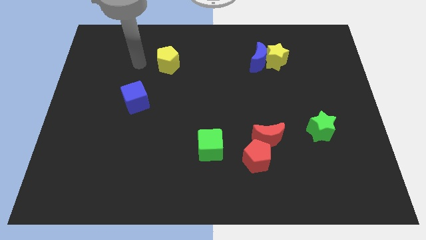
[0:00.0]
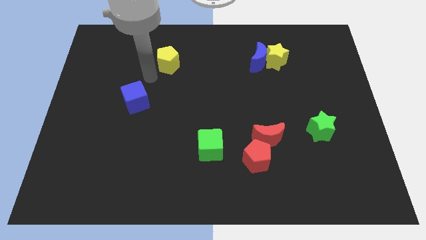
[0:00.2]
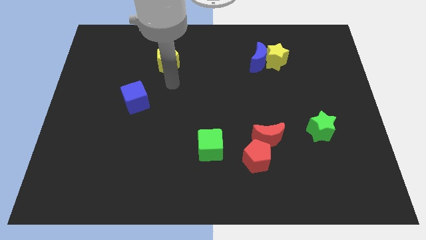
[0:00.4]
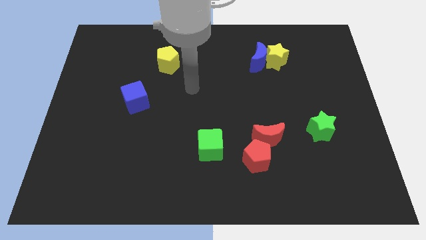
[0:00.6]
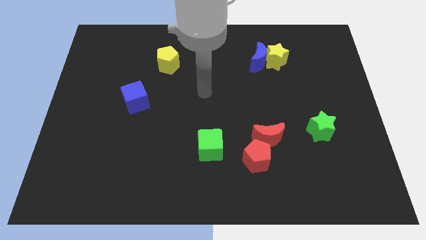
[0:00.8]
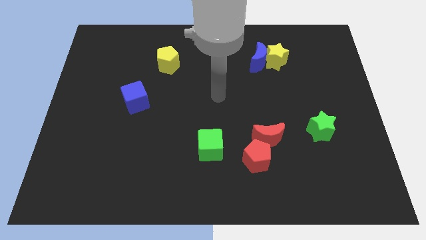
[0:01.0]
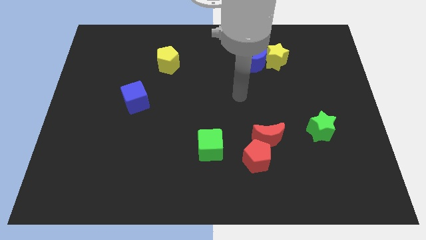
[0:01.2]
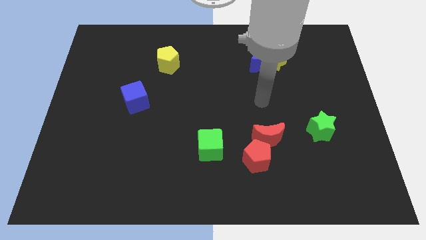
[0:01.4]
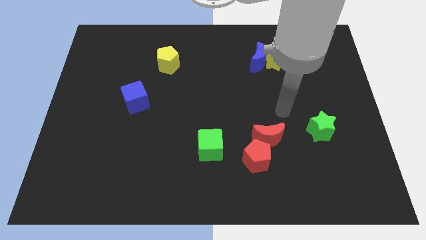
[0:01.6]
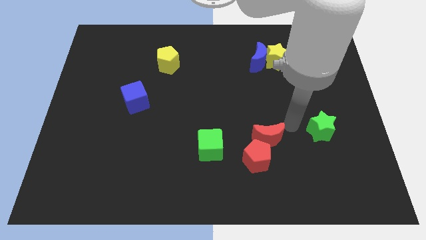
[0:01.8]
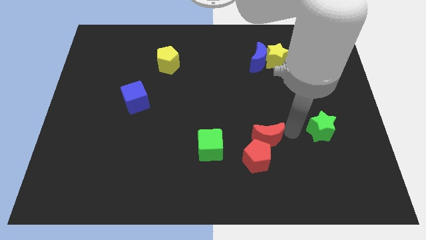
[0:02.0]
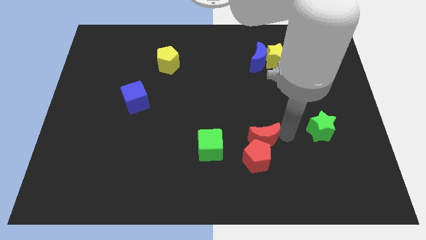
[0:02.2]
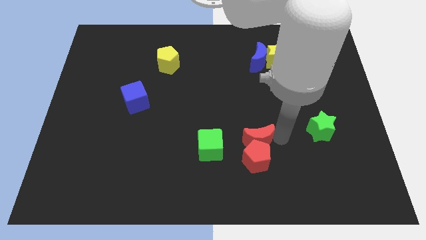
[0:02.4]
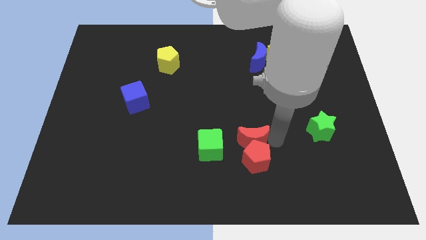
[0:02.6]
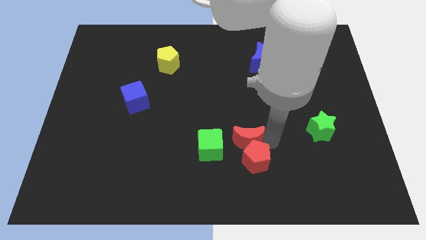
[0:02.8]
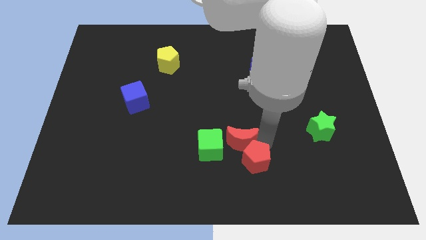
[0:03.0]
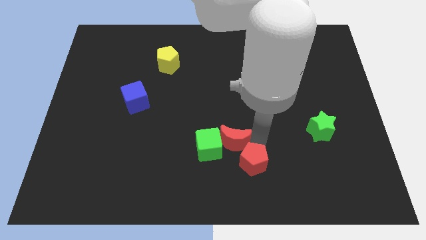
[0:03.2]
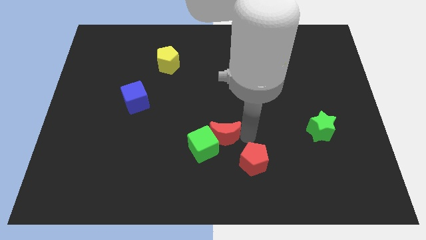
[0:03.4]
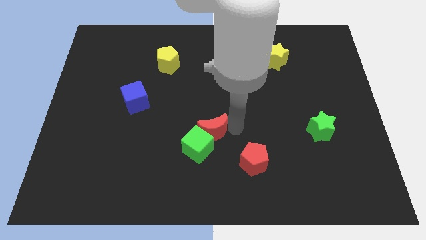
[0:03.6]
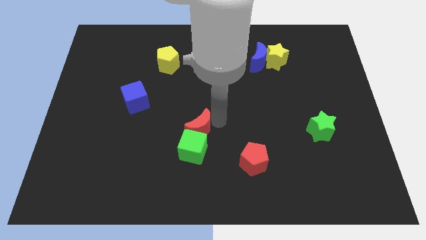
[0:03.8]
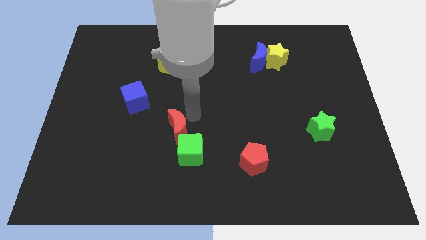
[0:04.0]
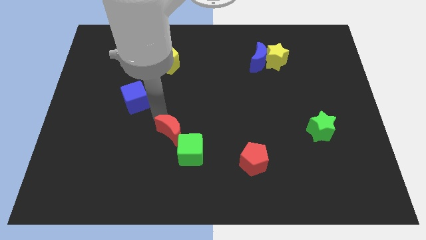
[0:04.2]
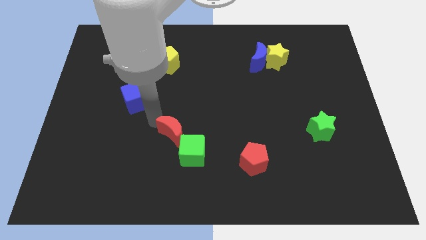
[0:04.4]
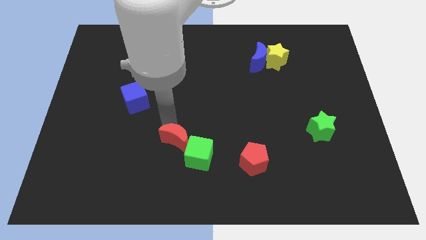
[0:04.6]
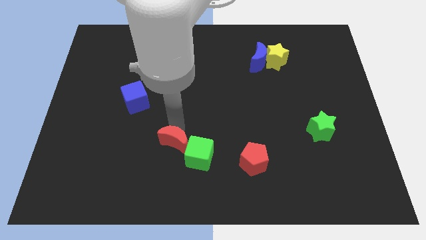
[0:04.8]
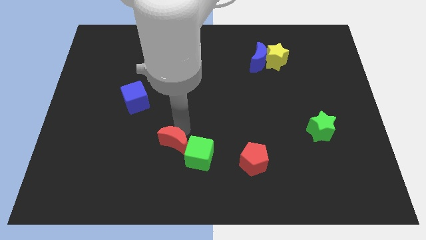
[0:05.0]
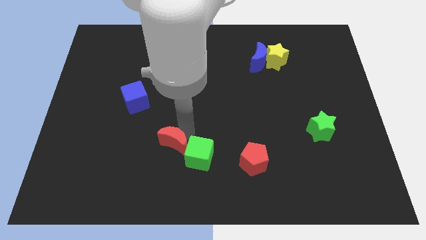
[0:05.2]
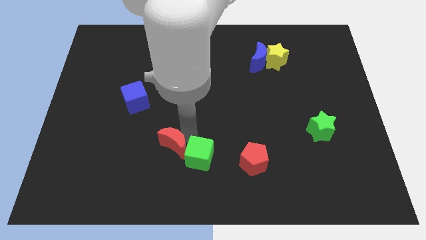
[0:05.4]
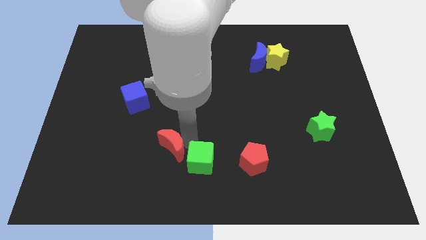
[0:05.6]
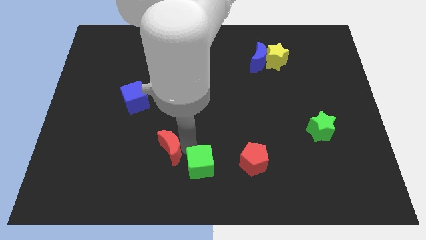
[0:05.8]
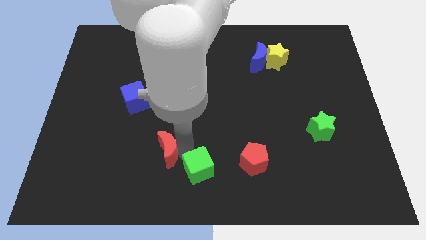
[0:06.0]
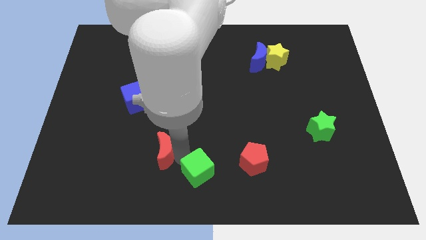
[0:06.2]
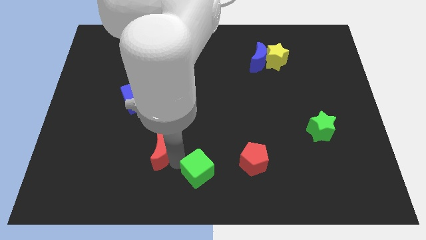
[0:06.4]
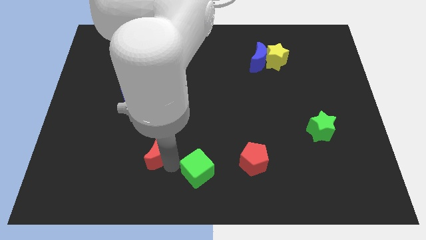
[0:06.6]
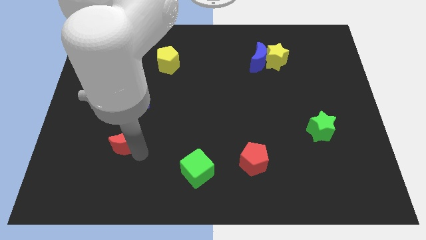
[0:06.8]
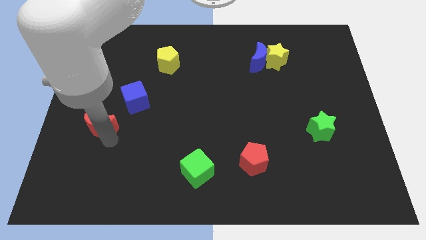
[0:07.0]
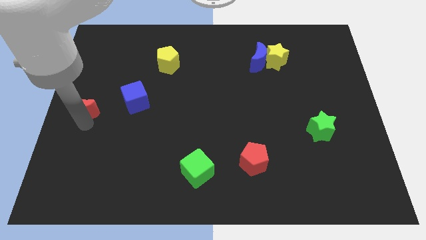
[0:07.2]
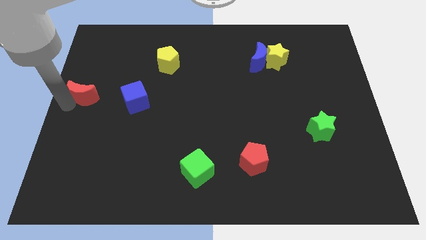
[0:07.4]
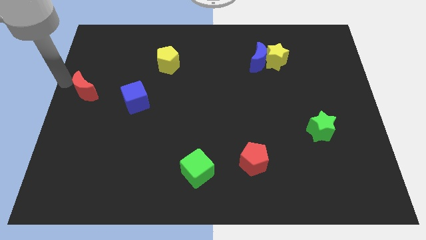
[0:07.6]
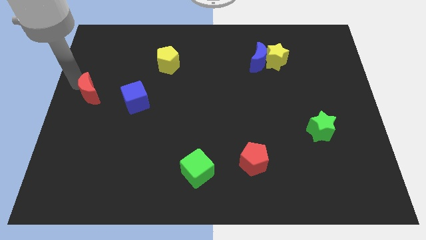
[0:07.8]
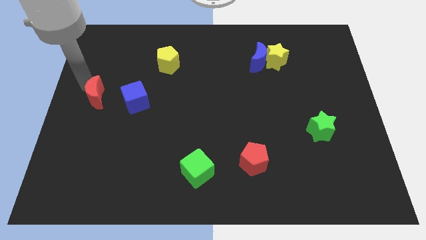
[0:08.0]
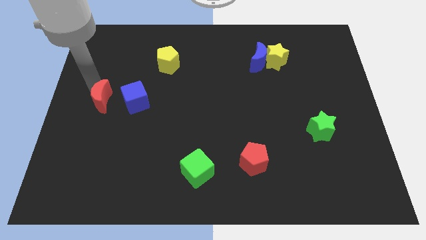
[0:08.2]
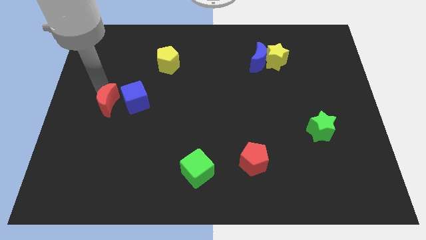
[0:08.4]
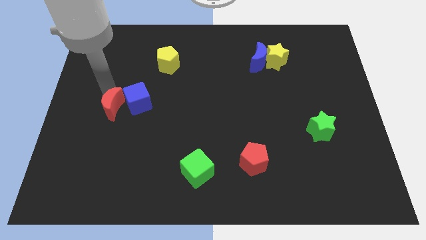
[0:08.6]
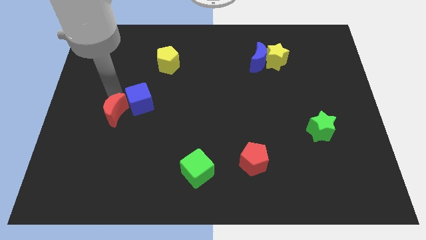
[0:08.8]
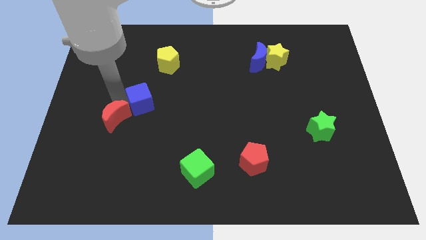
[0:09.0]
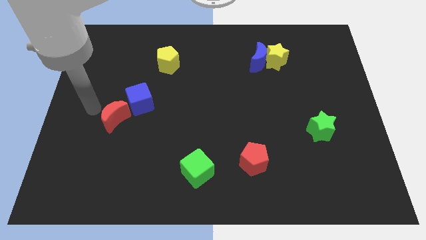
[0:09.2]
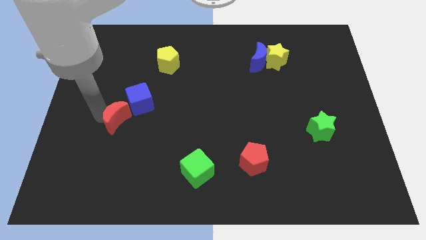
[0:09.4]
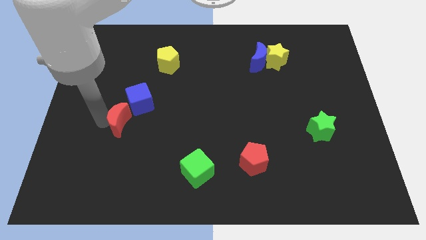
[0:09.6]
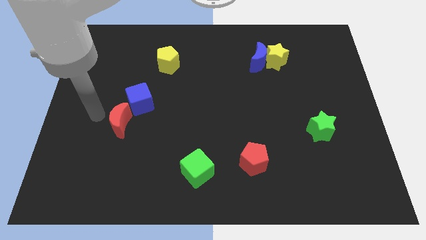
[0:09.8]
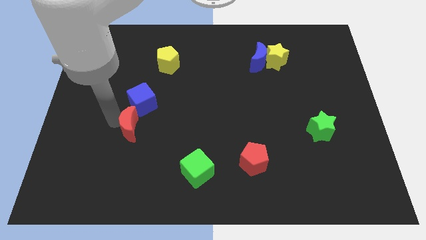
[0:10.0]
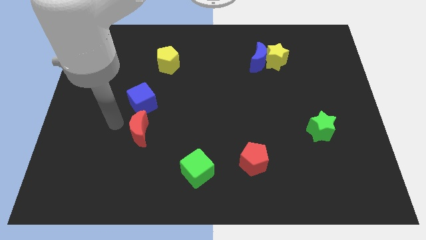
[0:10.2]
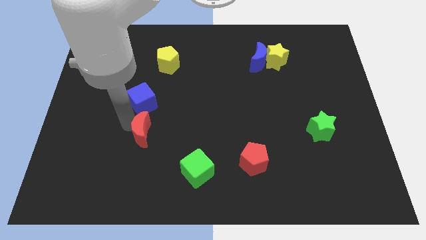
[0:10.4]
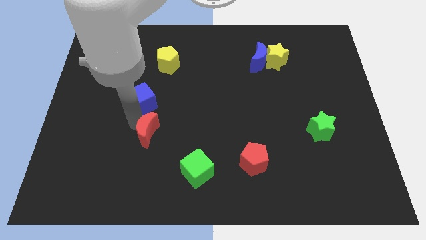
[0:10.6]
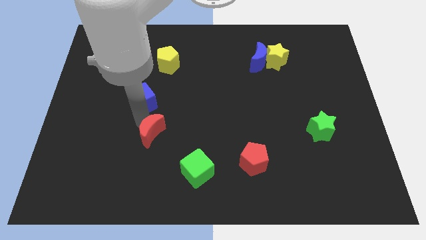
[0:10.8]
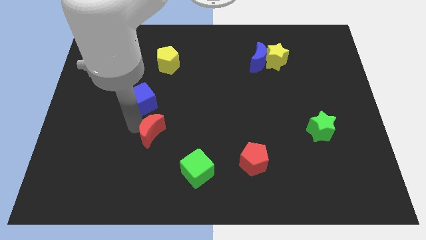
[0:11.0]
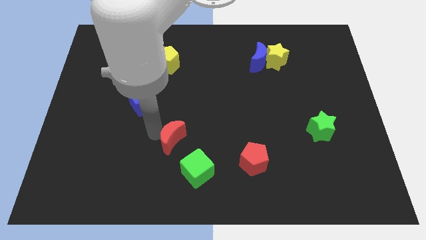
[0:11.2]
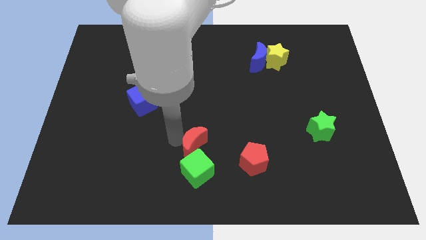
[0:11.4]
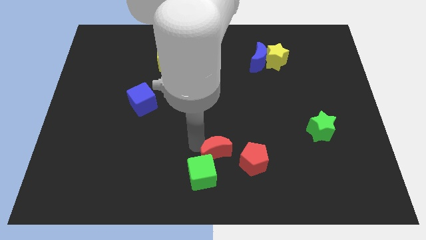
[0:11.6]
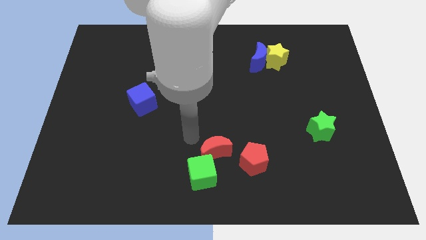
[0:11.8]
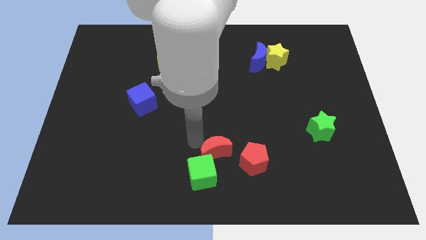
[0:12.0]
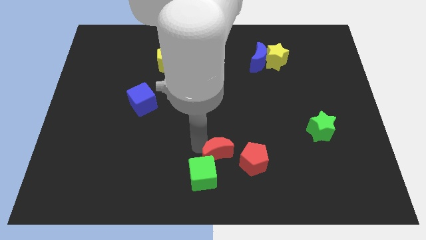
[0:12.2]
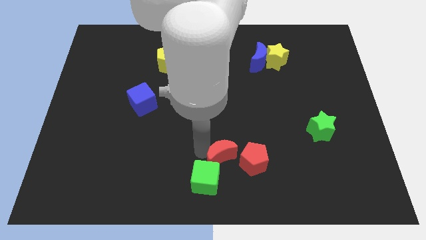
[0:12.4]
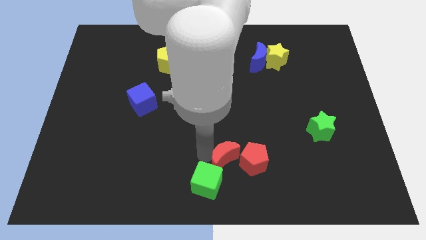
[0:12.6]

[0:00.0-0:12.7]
put the red moon to the bottom left side of the red pentagon

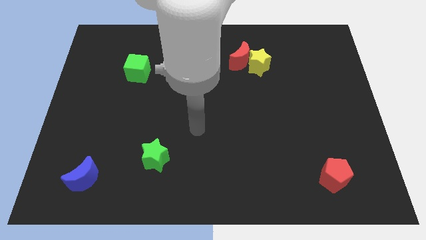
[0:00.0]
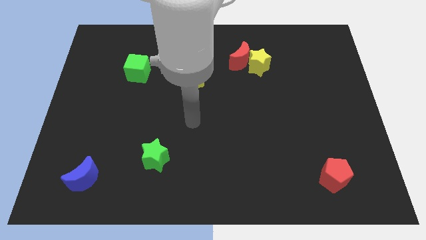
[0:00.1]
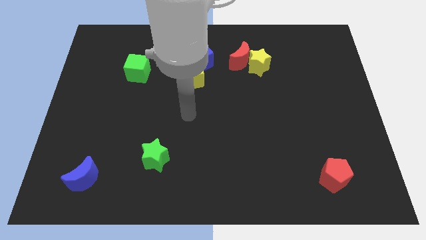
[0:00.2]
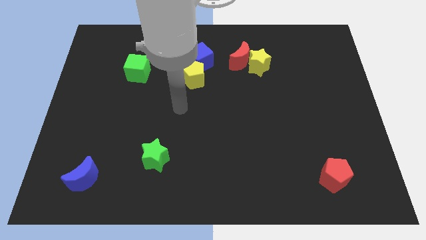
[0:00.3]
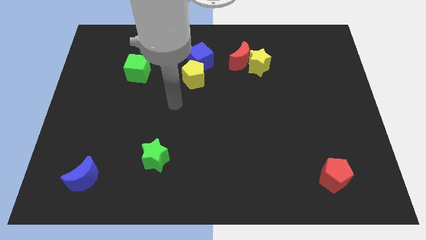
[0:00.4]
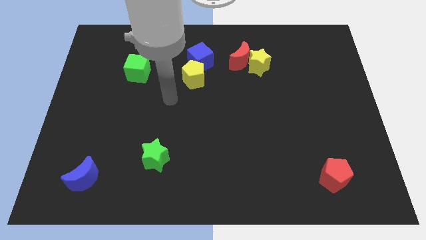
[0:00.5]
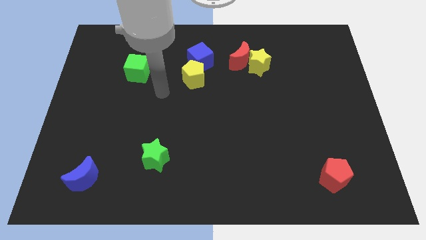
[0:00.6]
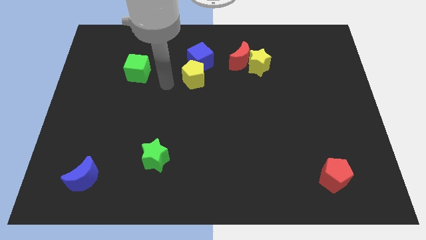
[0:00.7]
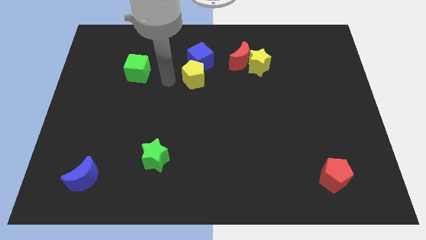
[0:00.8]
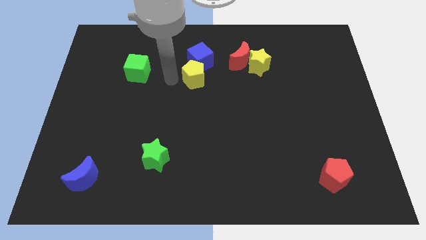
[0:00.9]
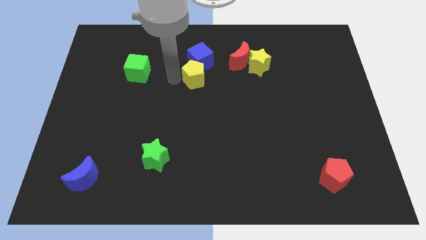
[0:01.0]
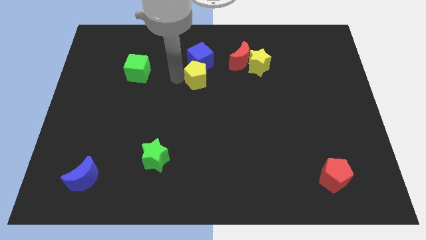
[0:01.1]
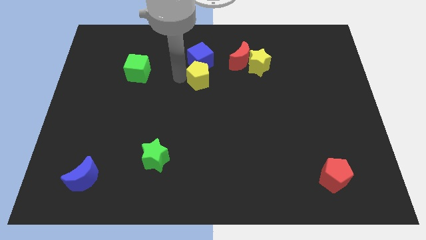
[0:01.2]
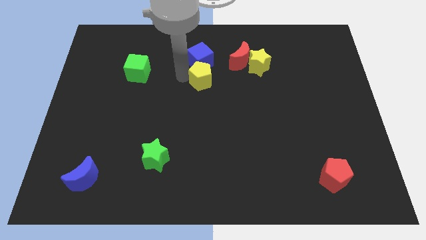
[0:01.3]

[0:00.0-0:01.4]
put the yellow pentagon to the bottom left side of the red moon
